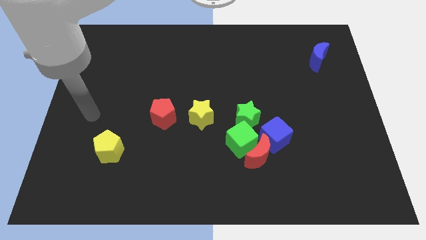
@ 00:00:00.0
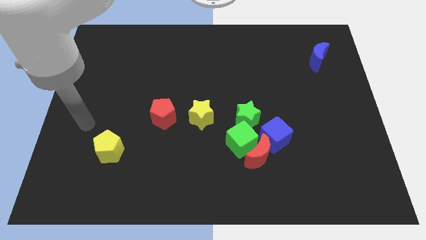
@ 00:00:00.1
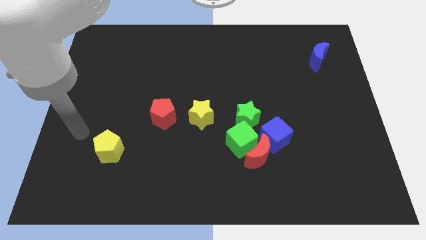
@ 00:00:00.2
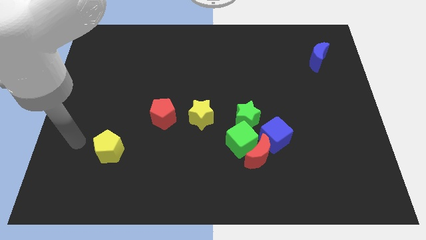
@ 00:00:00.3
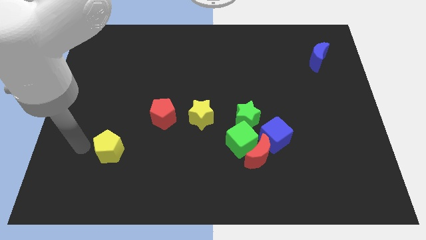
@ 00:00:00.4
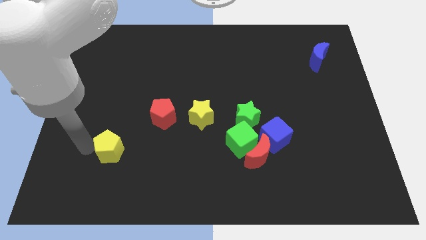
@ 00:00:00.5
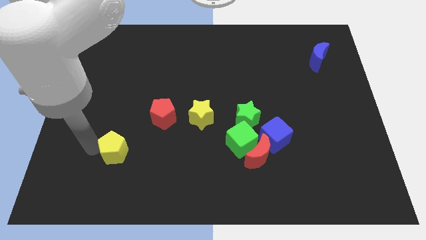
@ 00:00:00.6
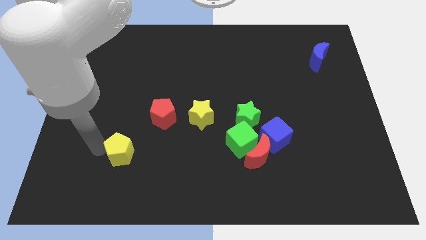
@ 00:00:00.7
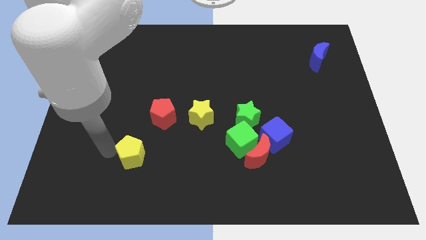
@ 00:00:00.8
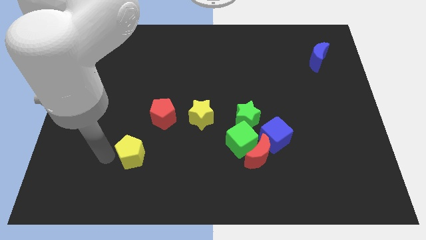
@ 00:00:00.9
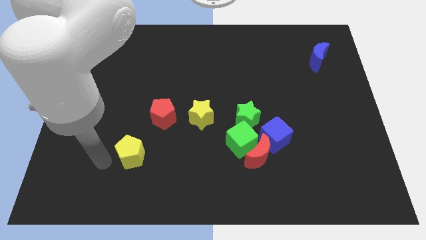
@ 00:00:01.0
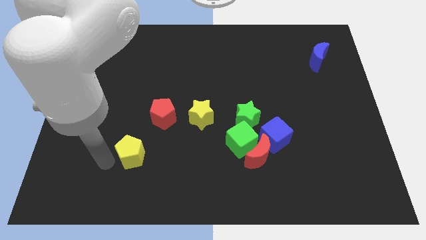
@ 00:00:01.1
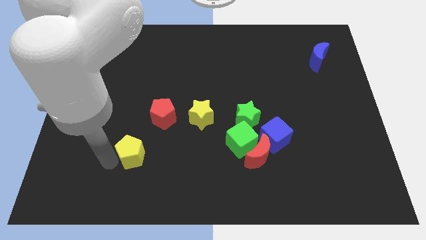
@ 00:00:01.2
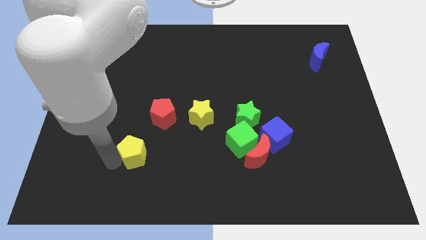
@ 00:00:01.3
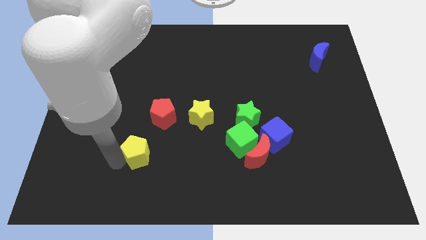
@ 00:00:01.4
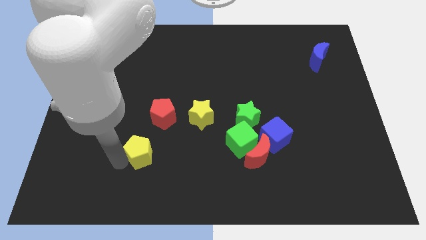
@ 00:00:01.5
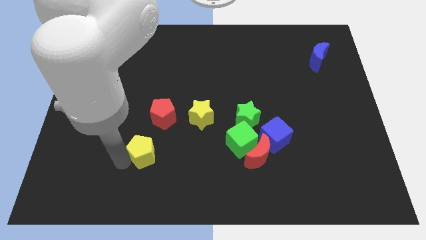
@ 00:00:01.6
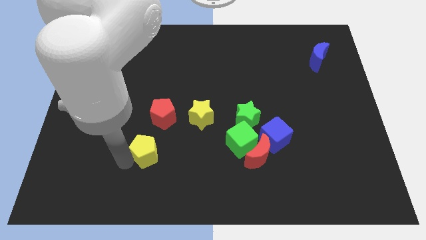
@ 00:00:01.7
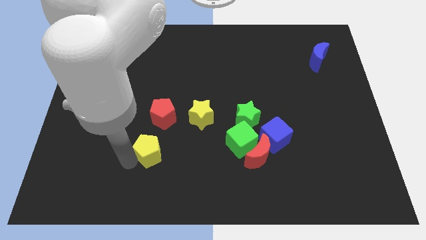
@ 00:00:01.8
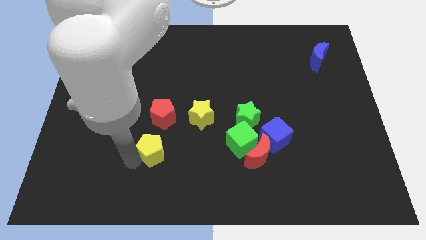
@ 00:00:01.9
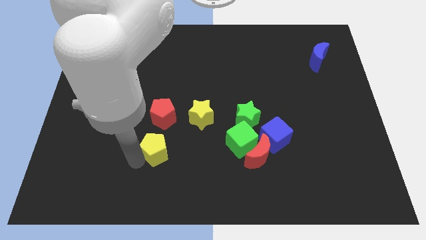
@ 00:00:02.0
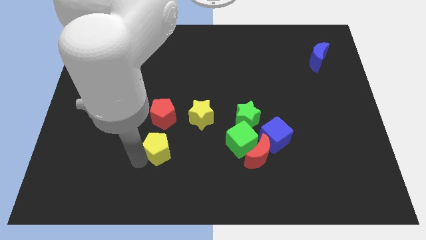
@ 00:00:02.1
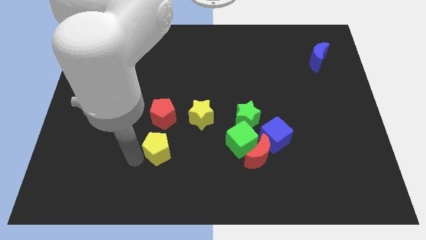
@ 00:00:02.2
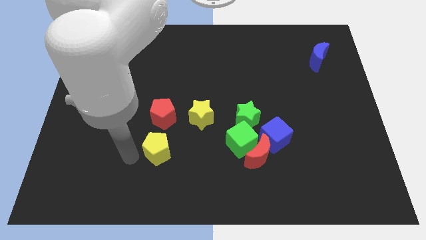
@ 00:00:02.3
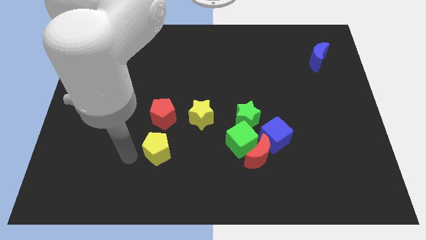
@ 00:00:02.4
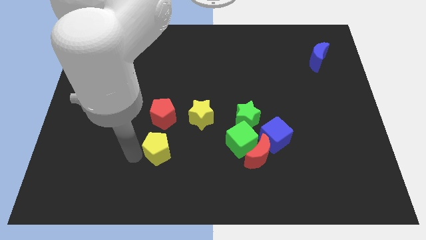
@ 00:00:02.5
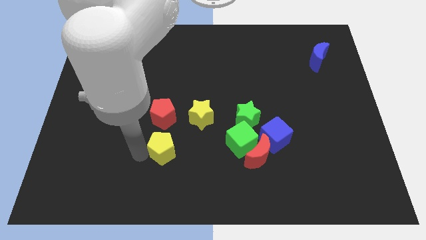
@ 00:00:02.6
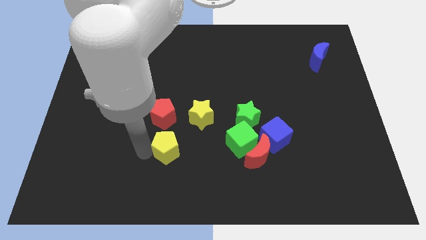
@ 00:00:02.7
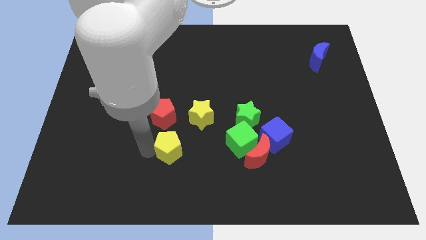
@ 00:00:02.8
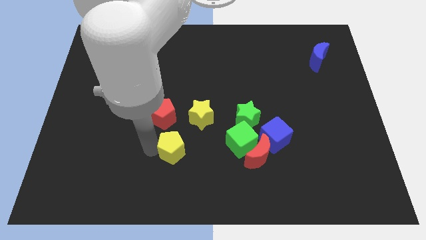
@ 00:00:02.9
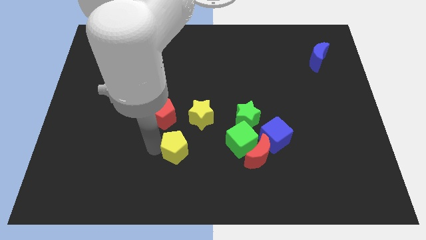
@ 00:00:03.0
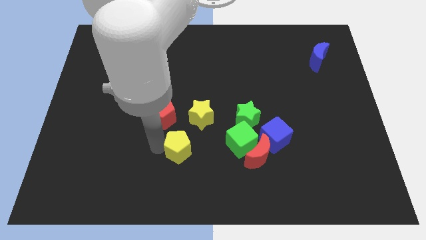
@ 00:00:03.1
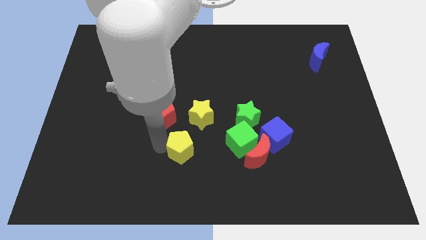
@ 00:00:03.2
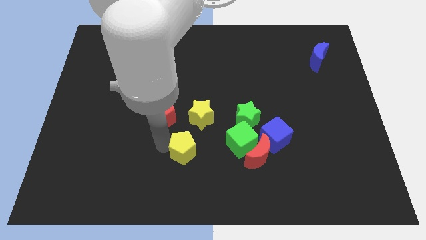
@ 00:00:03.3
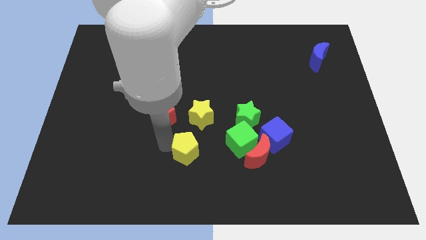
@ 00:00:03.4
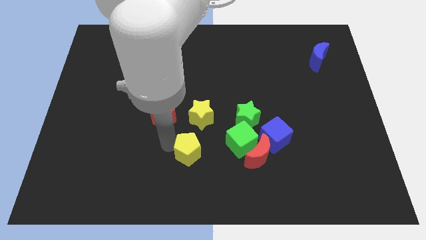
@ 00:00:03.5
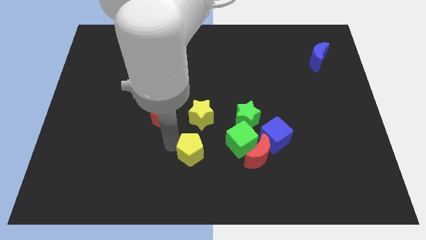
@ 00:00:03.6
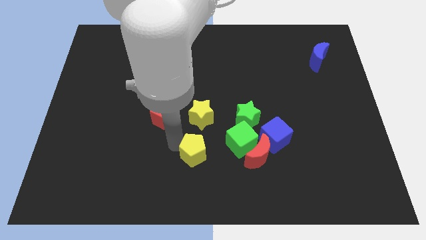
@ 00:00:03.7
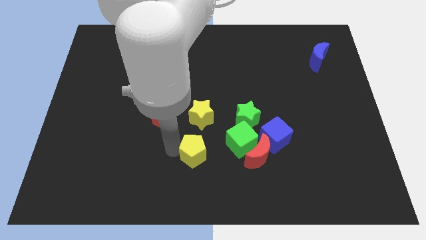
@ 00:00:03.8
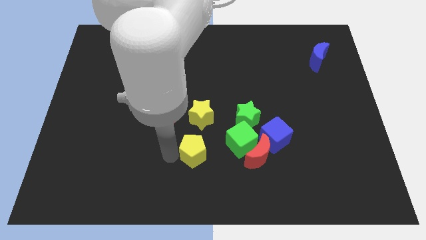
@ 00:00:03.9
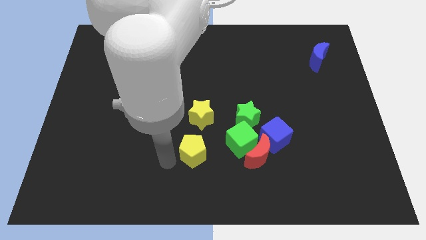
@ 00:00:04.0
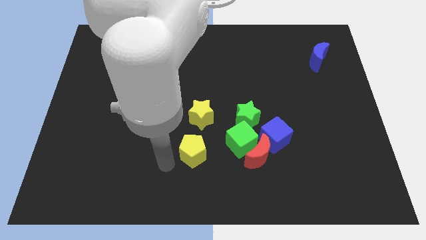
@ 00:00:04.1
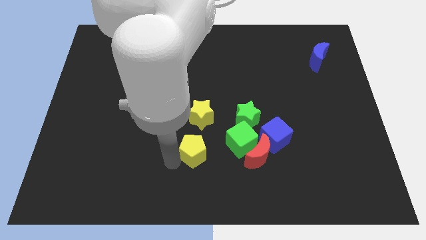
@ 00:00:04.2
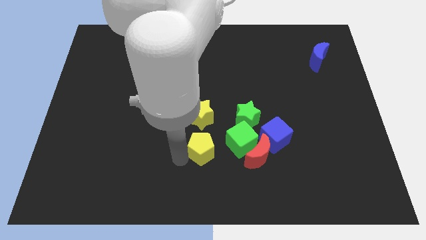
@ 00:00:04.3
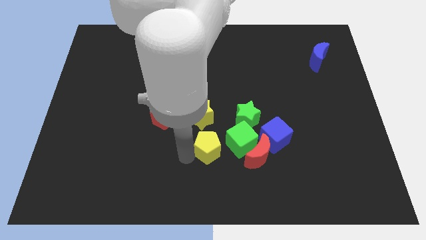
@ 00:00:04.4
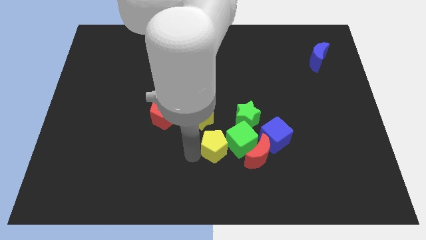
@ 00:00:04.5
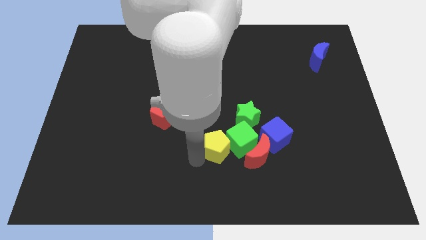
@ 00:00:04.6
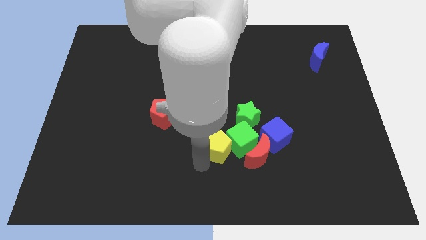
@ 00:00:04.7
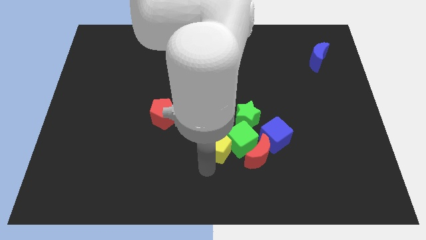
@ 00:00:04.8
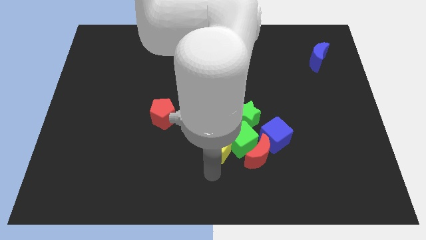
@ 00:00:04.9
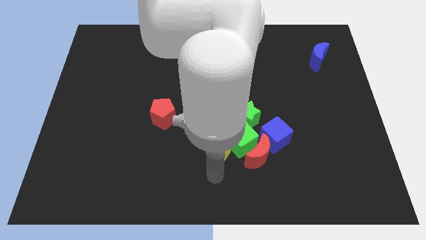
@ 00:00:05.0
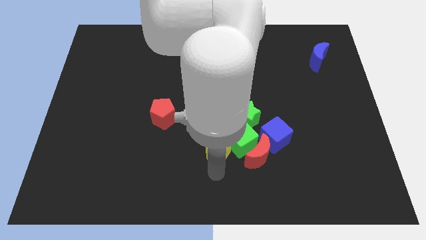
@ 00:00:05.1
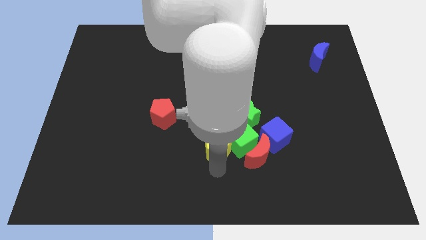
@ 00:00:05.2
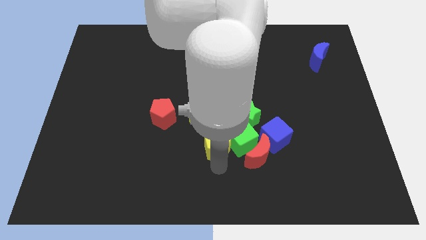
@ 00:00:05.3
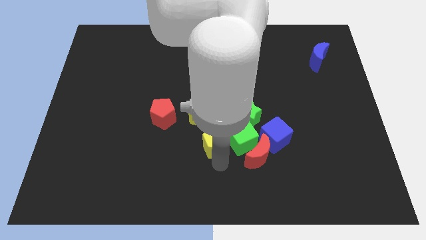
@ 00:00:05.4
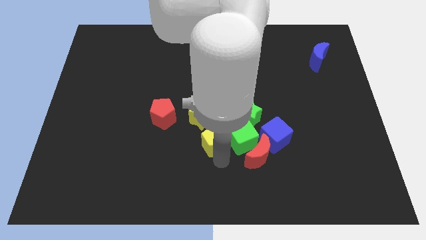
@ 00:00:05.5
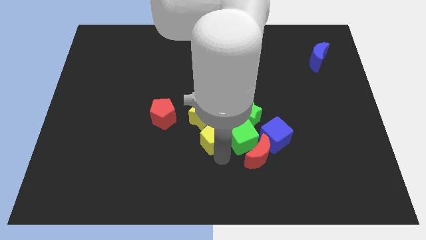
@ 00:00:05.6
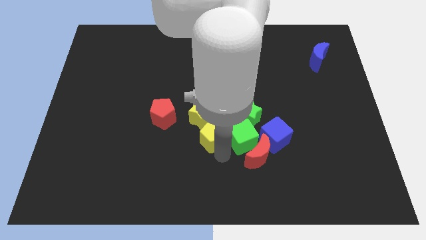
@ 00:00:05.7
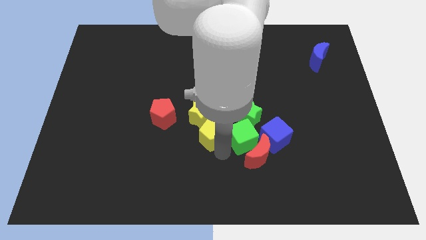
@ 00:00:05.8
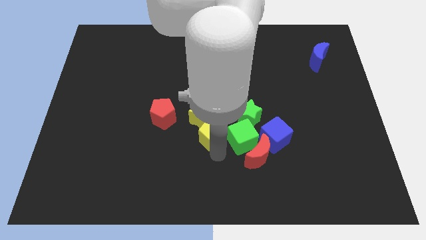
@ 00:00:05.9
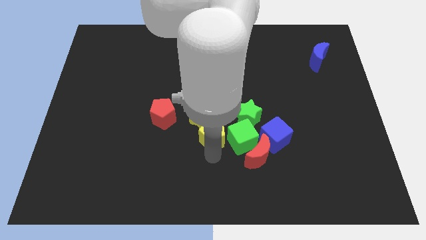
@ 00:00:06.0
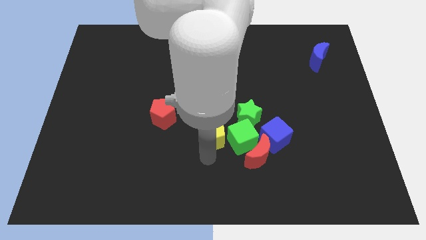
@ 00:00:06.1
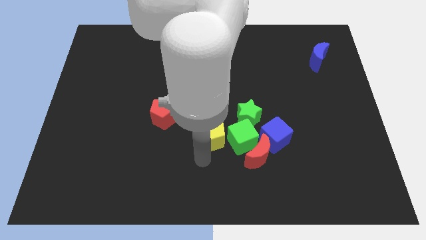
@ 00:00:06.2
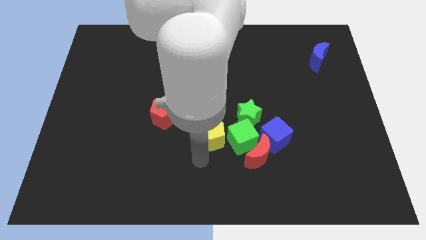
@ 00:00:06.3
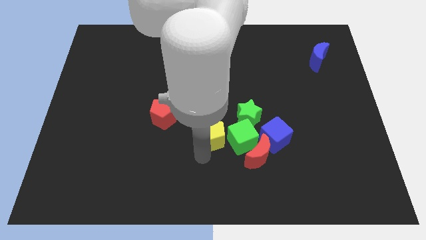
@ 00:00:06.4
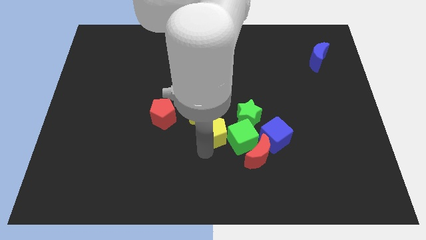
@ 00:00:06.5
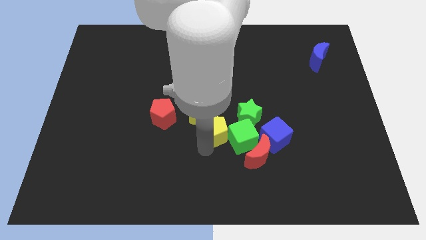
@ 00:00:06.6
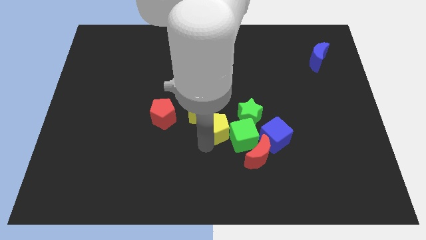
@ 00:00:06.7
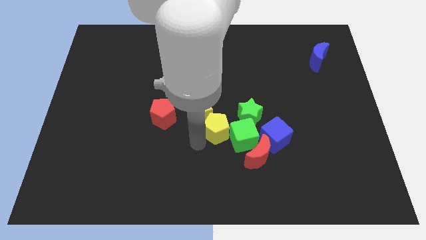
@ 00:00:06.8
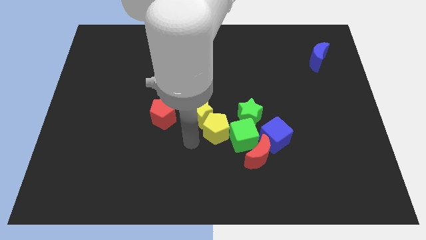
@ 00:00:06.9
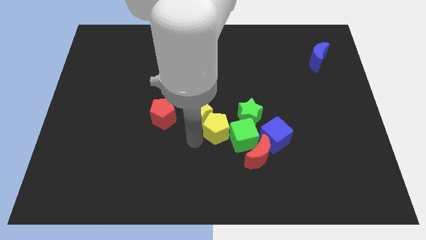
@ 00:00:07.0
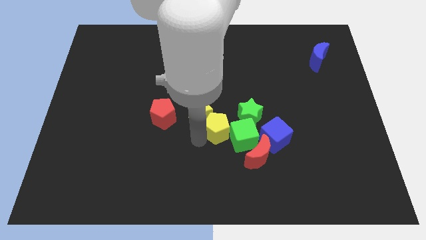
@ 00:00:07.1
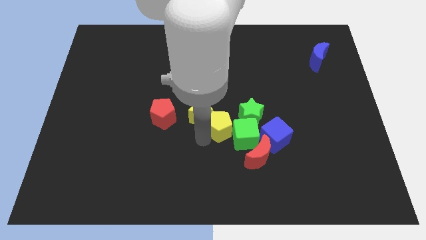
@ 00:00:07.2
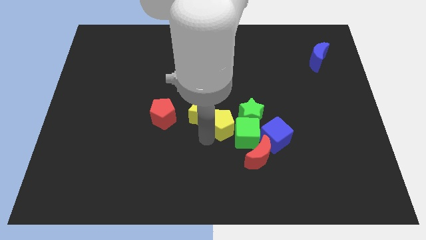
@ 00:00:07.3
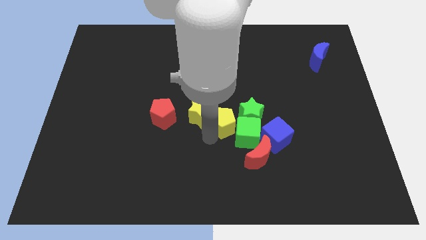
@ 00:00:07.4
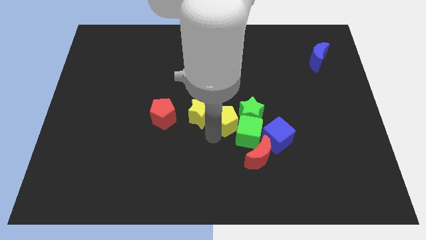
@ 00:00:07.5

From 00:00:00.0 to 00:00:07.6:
move the yellow pentagon towards the green star
